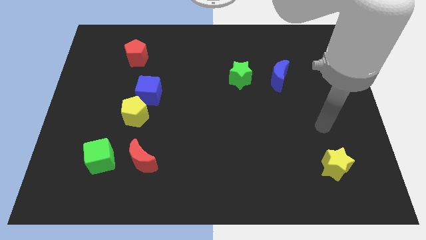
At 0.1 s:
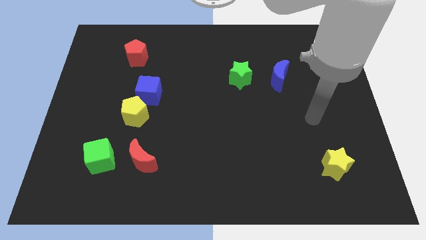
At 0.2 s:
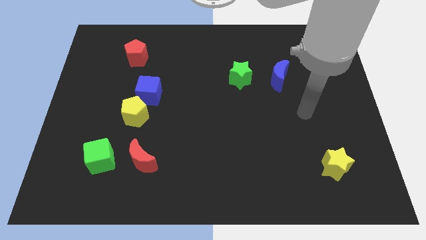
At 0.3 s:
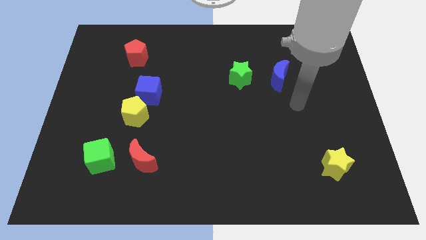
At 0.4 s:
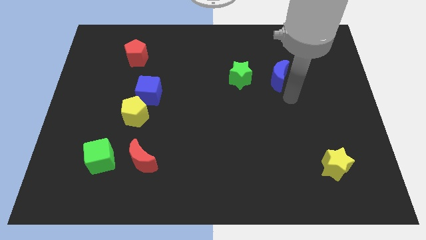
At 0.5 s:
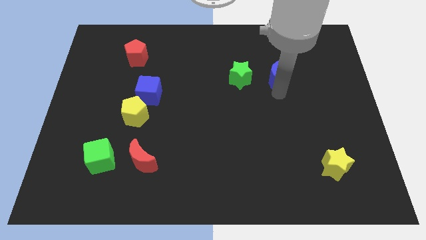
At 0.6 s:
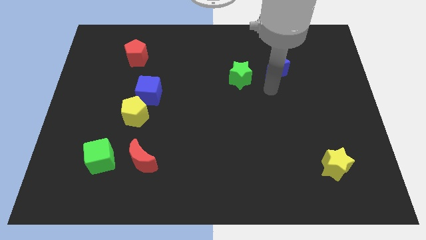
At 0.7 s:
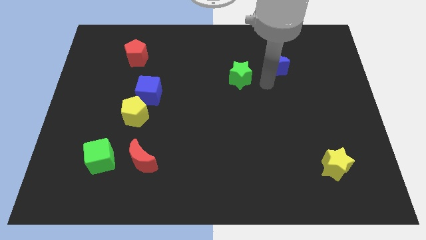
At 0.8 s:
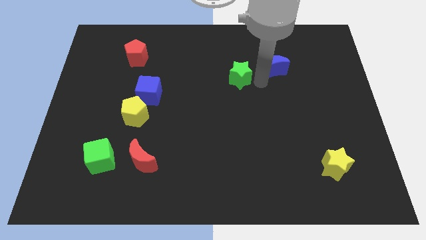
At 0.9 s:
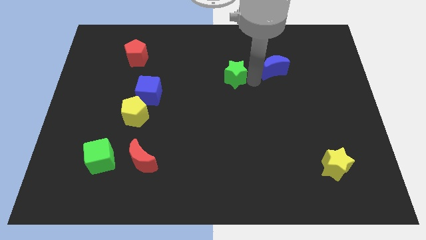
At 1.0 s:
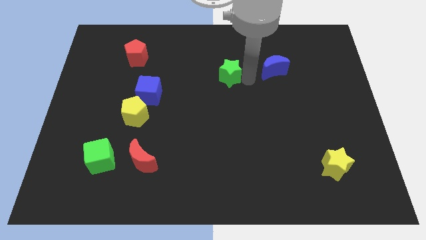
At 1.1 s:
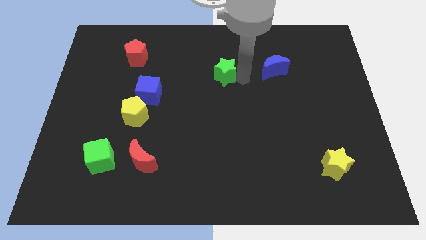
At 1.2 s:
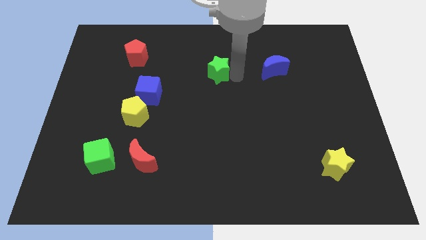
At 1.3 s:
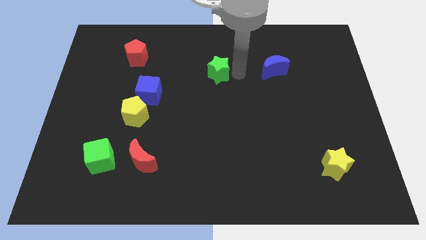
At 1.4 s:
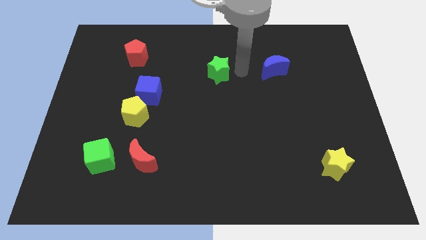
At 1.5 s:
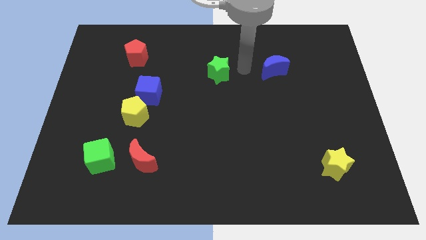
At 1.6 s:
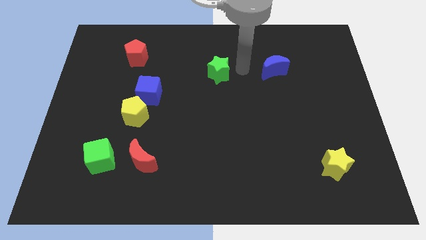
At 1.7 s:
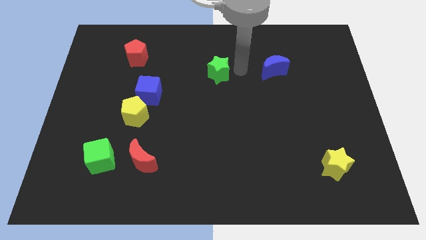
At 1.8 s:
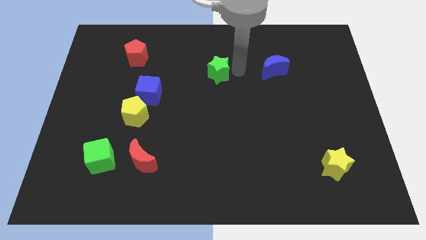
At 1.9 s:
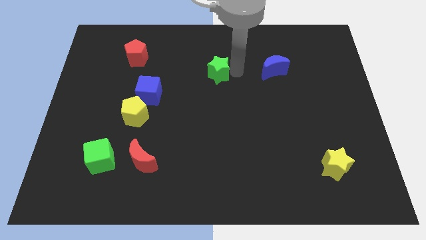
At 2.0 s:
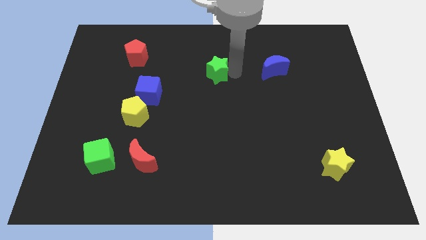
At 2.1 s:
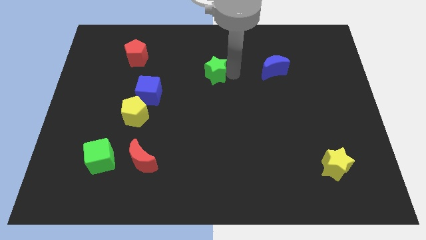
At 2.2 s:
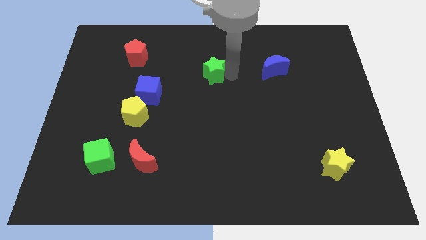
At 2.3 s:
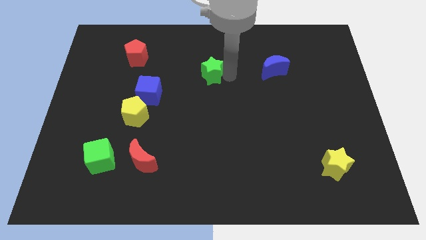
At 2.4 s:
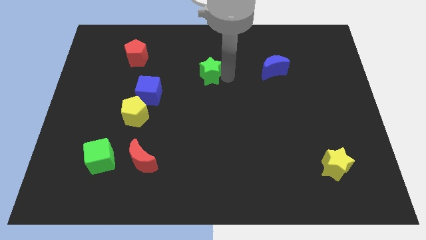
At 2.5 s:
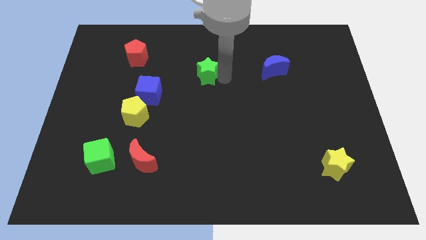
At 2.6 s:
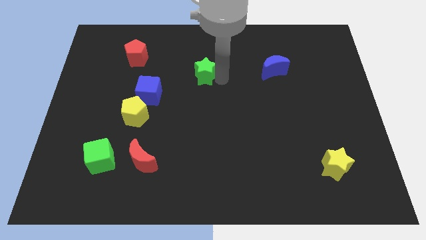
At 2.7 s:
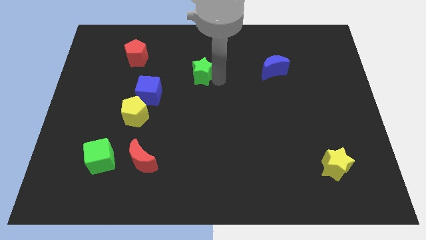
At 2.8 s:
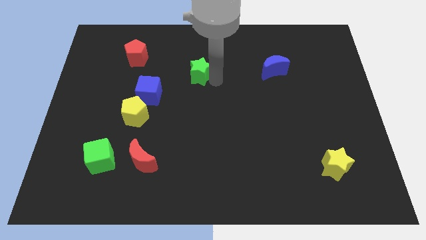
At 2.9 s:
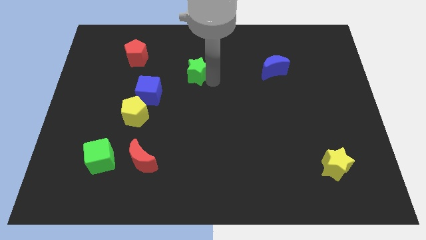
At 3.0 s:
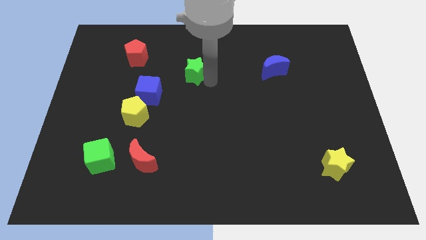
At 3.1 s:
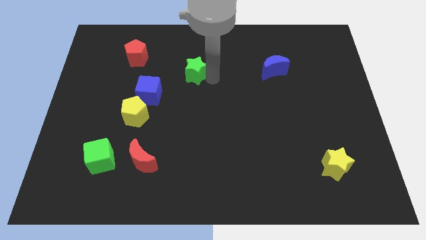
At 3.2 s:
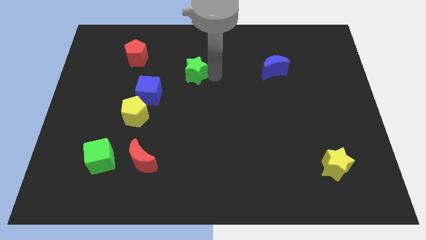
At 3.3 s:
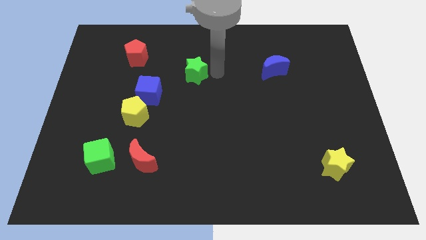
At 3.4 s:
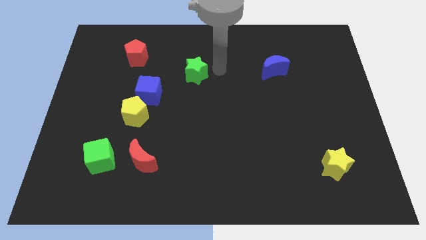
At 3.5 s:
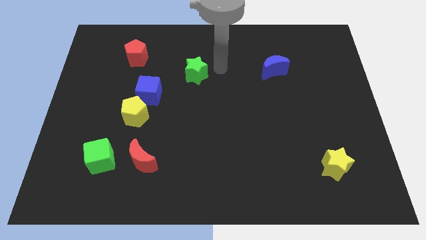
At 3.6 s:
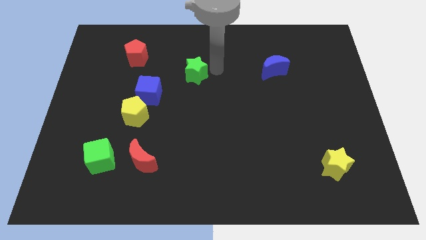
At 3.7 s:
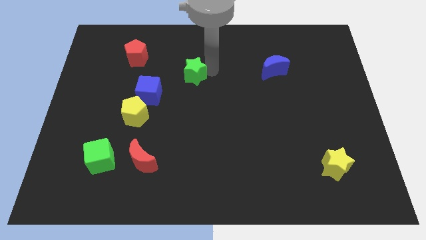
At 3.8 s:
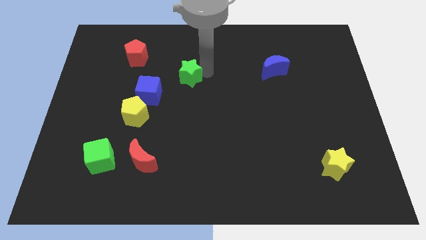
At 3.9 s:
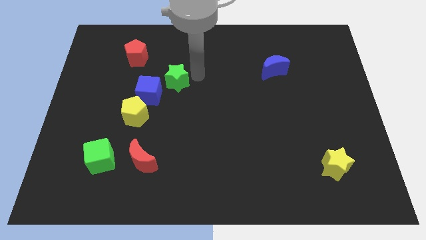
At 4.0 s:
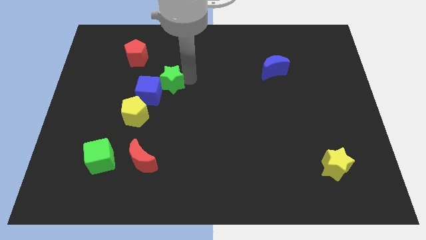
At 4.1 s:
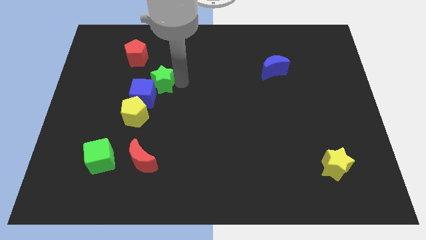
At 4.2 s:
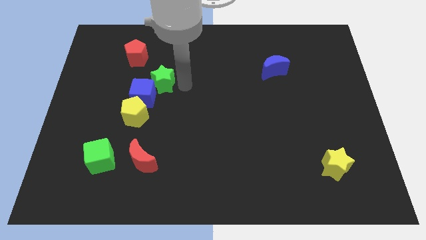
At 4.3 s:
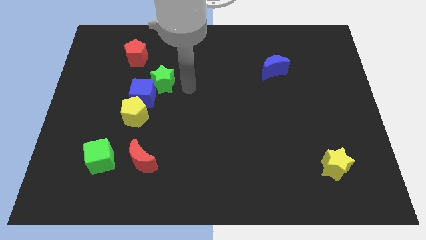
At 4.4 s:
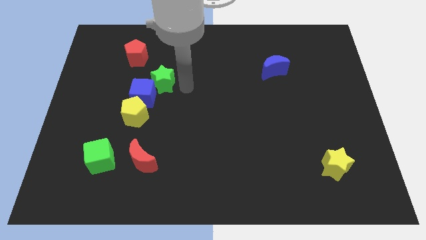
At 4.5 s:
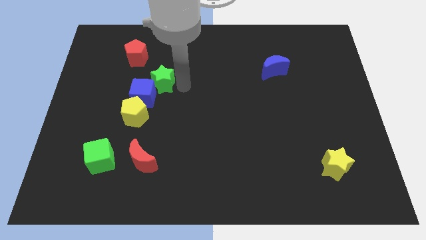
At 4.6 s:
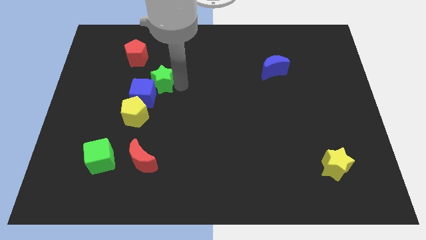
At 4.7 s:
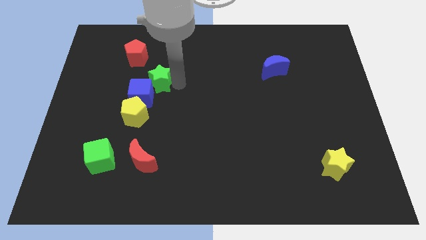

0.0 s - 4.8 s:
push the green star left

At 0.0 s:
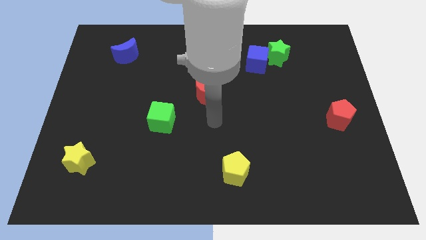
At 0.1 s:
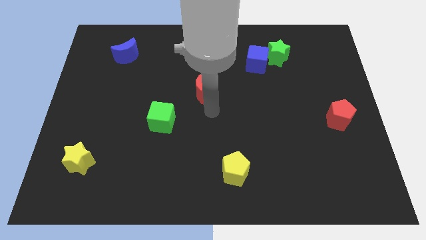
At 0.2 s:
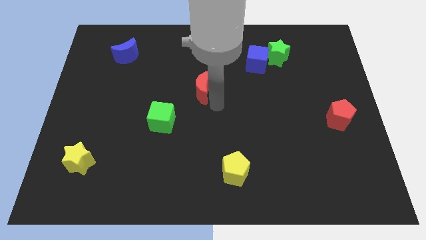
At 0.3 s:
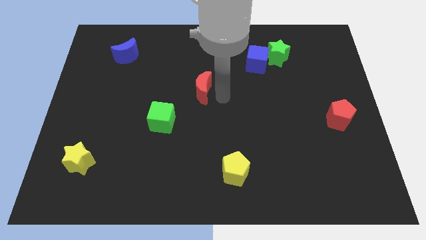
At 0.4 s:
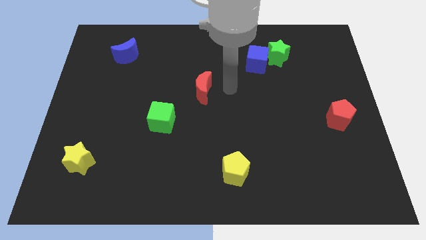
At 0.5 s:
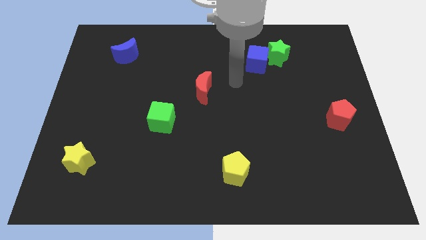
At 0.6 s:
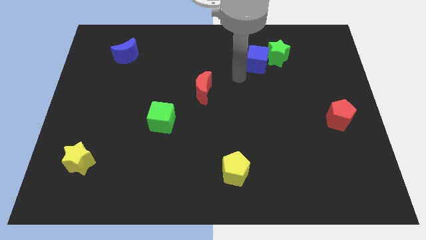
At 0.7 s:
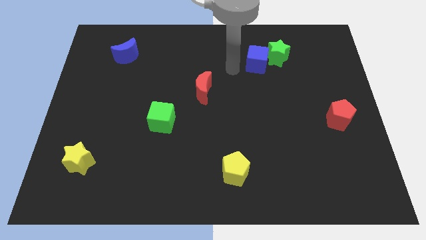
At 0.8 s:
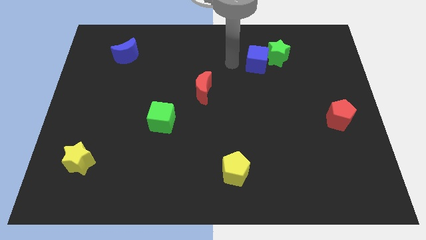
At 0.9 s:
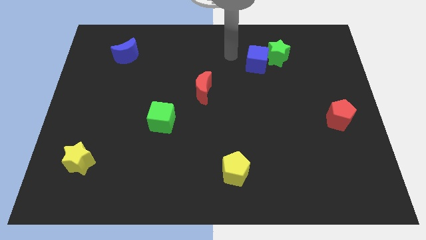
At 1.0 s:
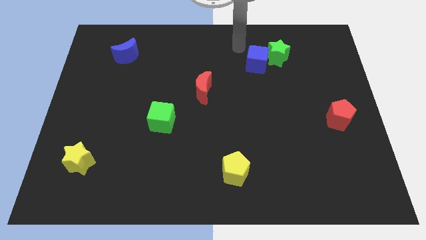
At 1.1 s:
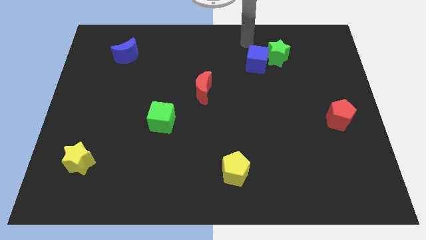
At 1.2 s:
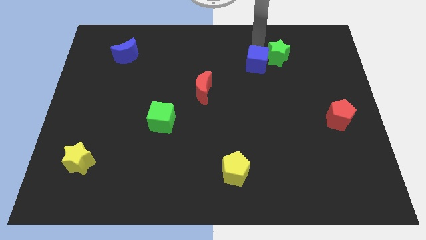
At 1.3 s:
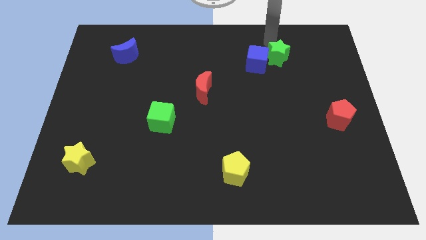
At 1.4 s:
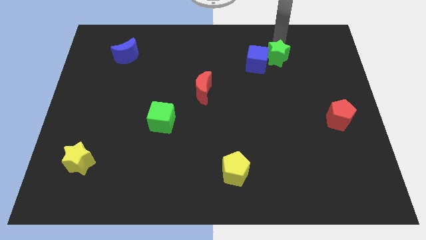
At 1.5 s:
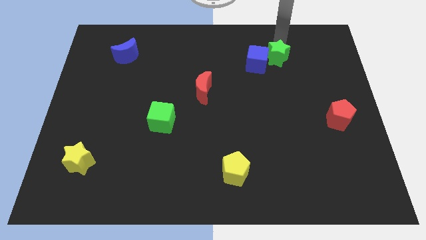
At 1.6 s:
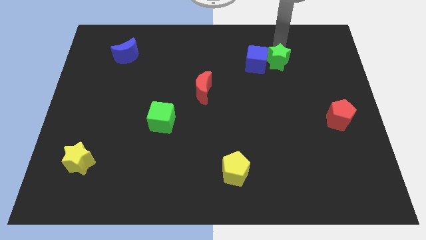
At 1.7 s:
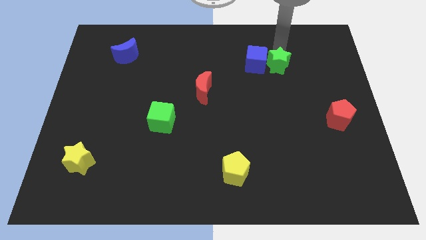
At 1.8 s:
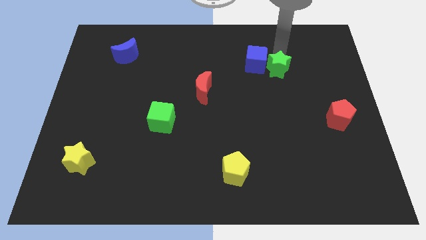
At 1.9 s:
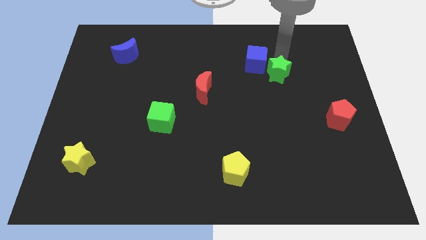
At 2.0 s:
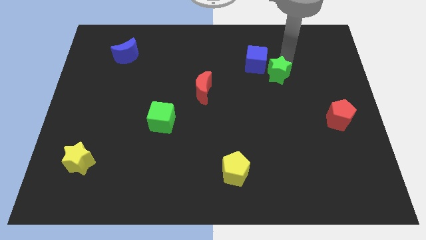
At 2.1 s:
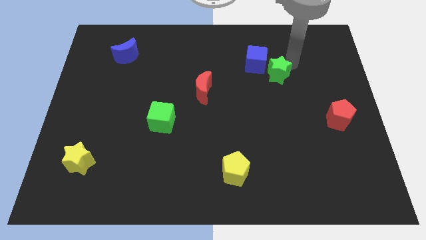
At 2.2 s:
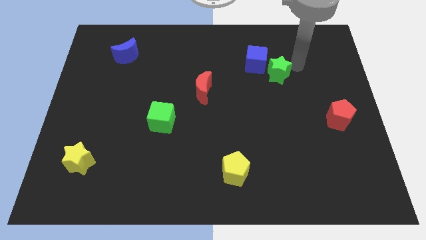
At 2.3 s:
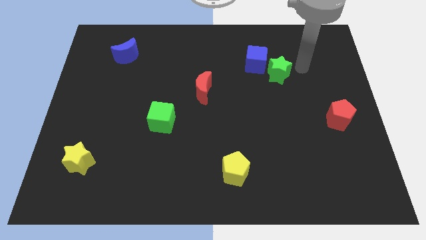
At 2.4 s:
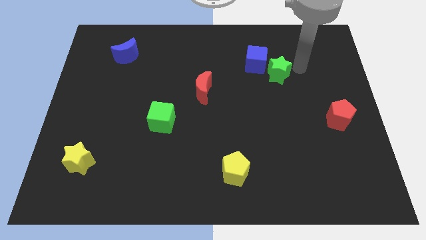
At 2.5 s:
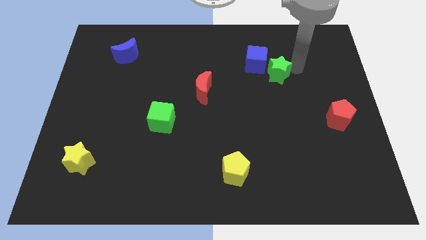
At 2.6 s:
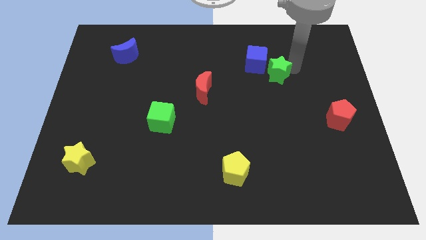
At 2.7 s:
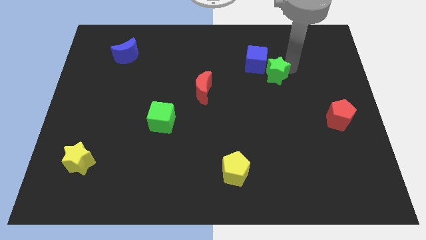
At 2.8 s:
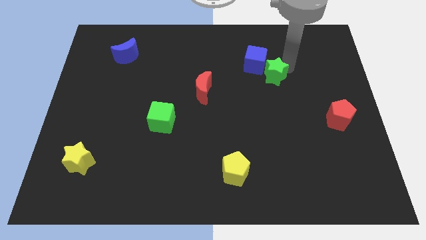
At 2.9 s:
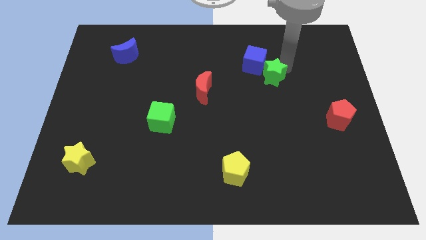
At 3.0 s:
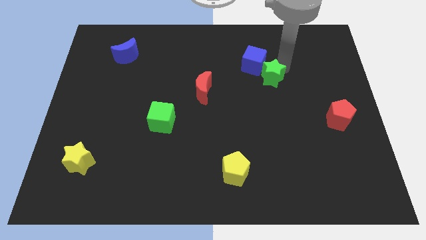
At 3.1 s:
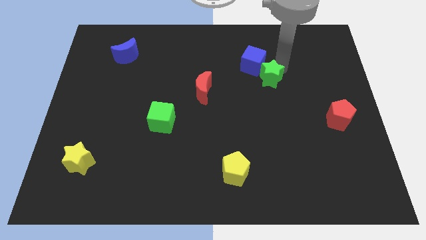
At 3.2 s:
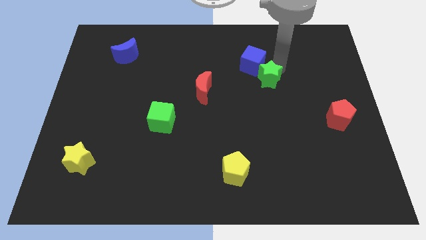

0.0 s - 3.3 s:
push the green star downwards and to the left somewhat
